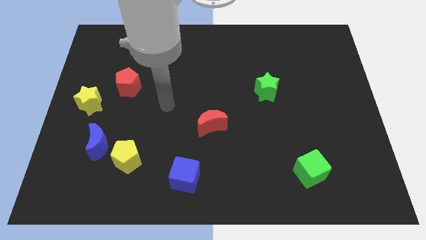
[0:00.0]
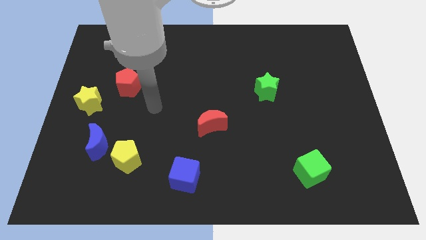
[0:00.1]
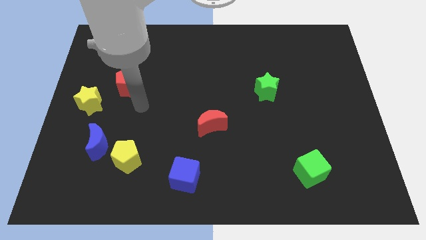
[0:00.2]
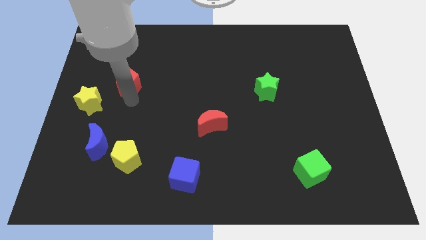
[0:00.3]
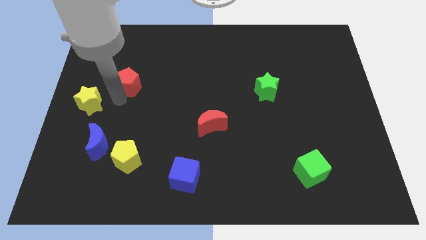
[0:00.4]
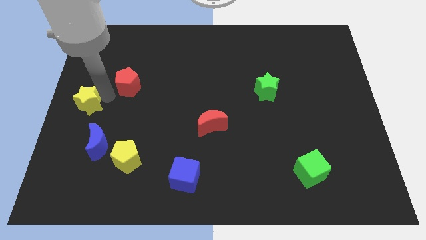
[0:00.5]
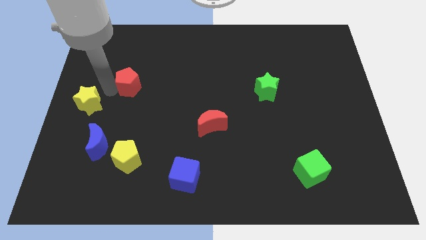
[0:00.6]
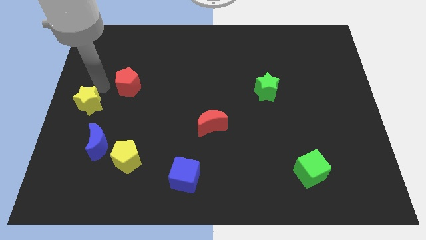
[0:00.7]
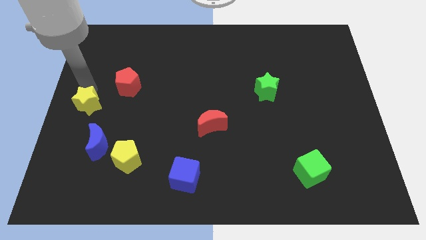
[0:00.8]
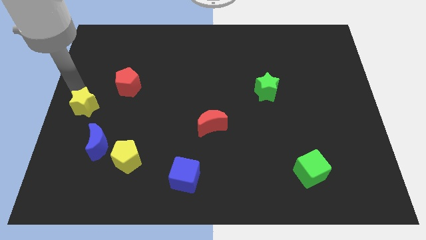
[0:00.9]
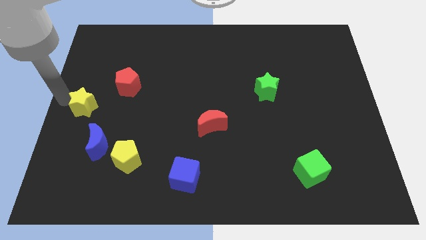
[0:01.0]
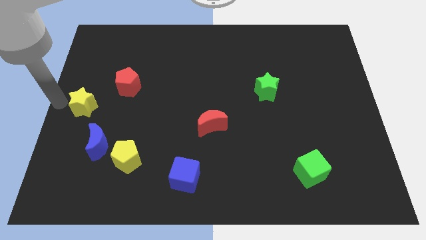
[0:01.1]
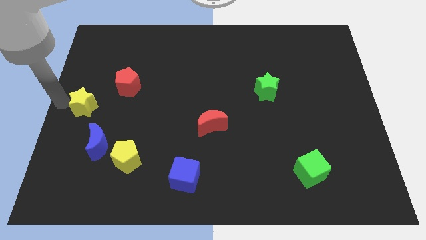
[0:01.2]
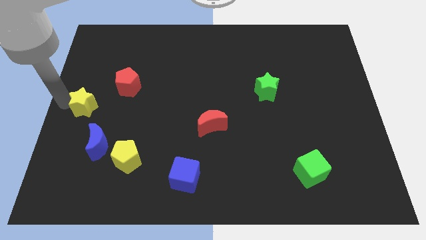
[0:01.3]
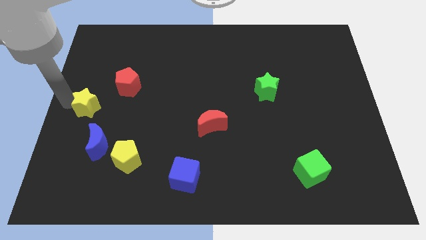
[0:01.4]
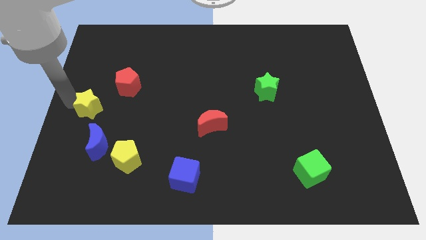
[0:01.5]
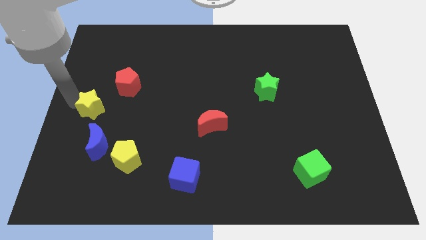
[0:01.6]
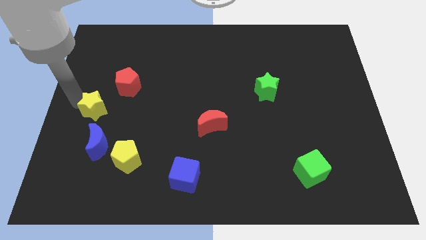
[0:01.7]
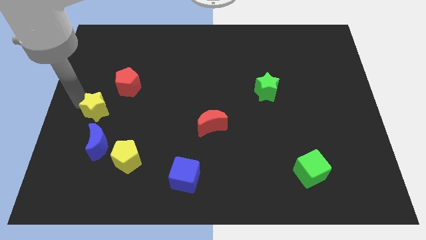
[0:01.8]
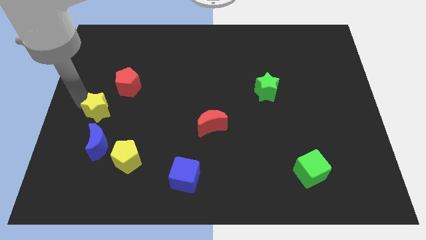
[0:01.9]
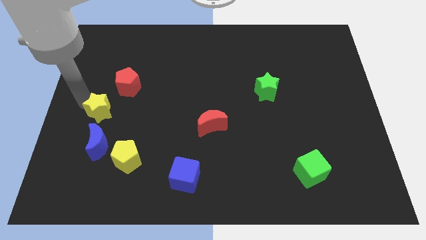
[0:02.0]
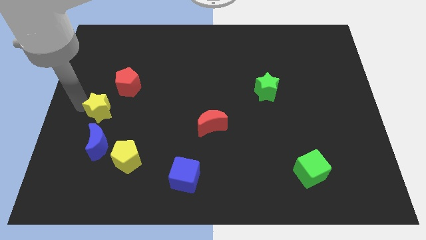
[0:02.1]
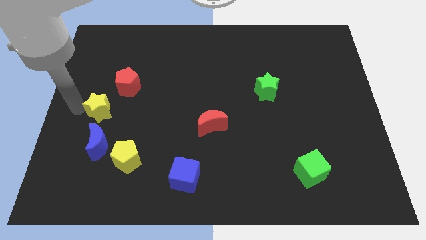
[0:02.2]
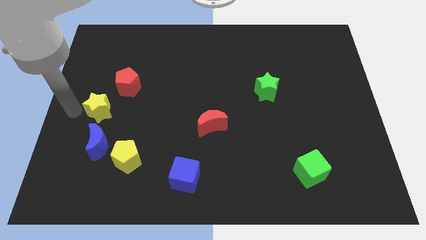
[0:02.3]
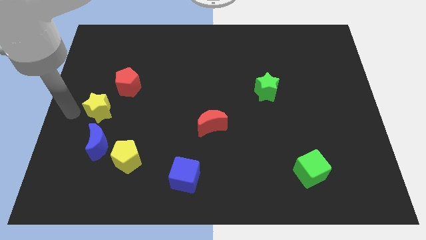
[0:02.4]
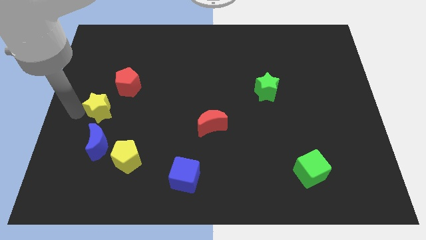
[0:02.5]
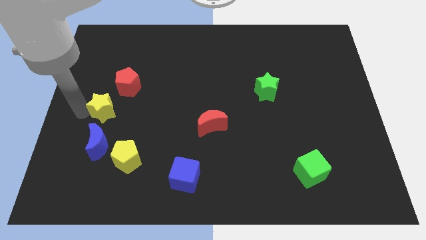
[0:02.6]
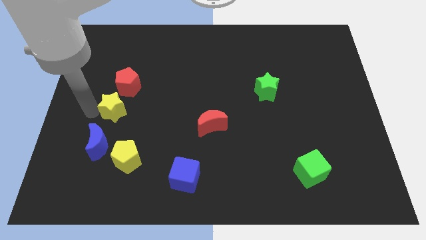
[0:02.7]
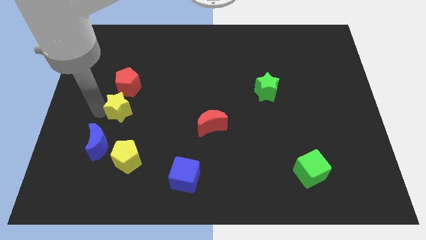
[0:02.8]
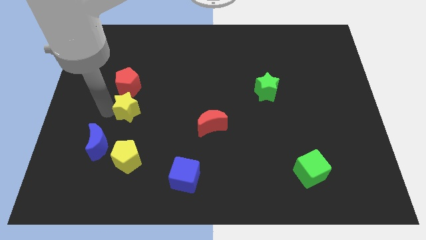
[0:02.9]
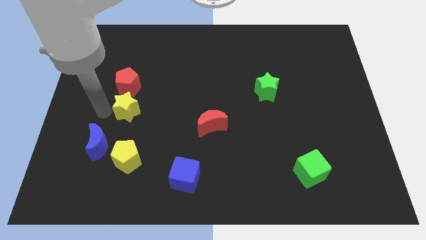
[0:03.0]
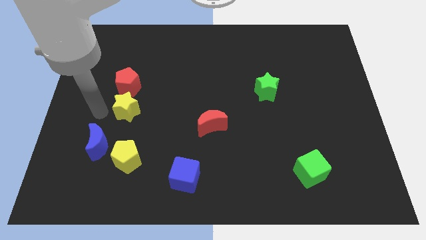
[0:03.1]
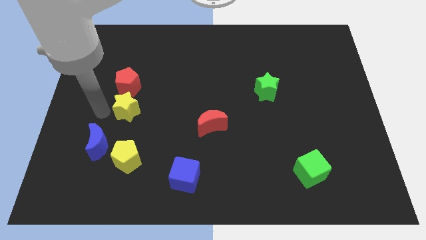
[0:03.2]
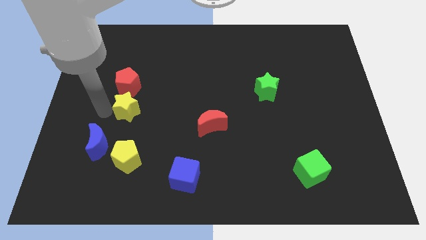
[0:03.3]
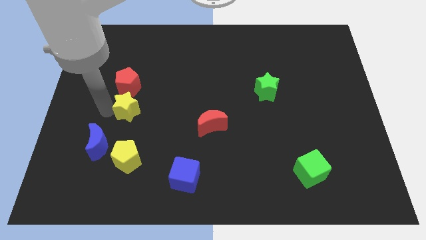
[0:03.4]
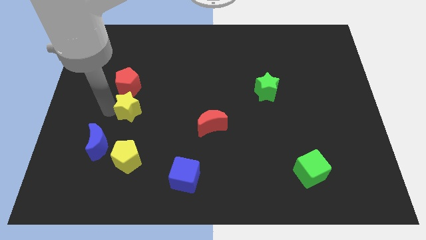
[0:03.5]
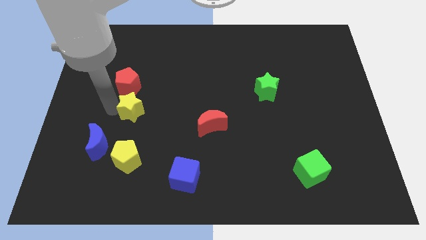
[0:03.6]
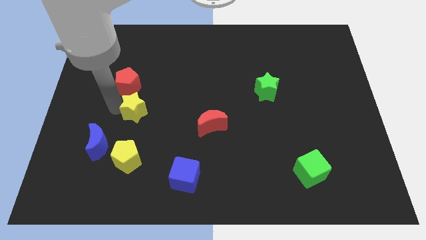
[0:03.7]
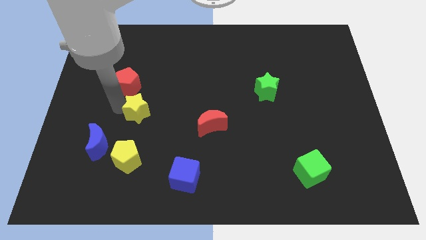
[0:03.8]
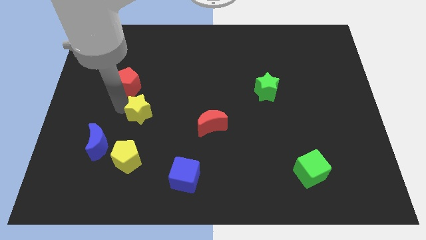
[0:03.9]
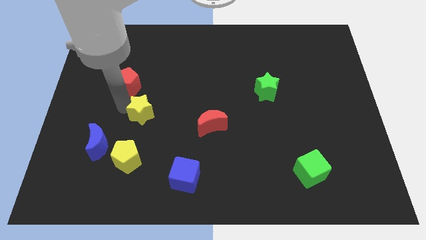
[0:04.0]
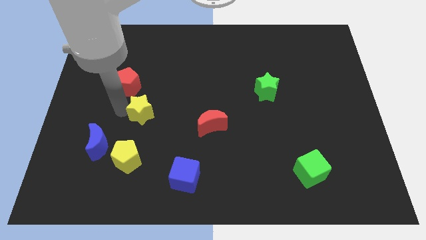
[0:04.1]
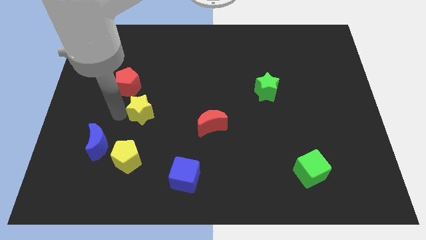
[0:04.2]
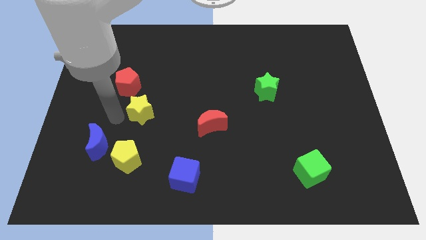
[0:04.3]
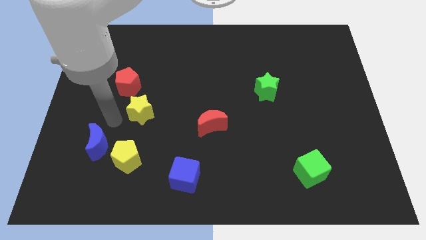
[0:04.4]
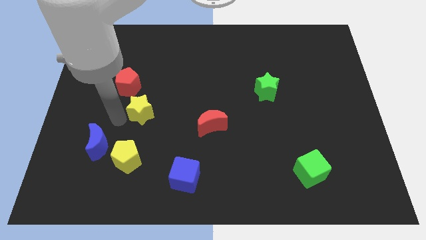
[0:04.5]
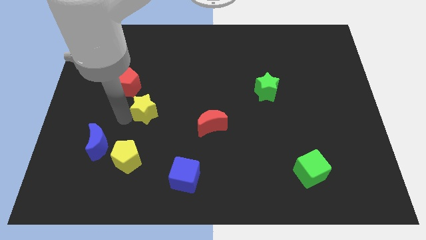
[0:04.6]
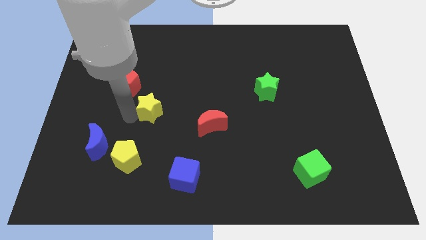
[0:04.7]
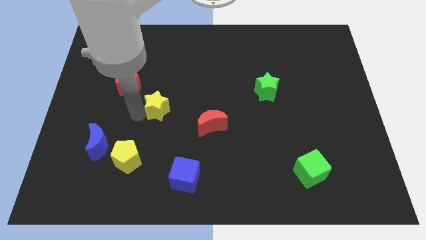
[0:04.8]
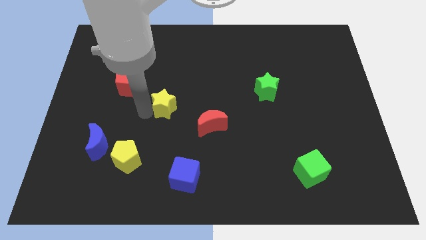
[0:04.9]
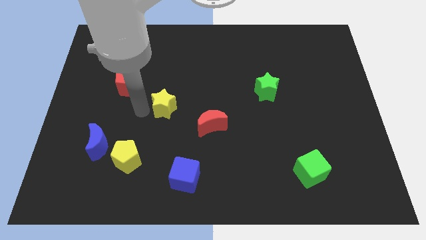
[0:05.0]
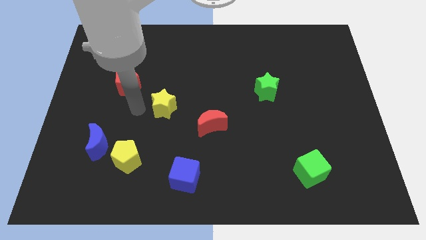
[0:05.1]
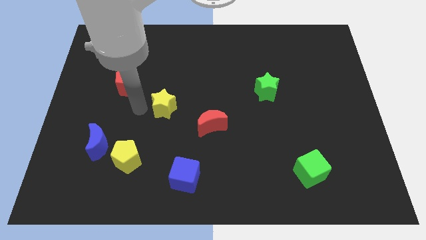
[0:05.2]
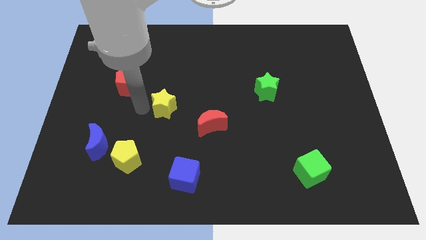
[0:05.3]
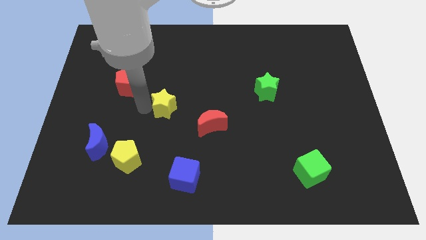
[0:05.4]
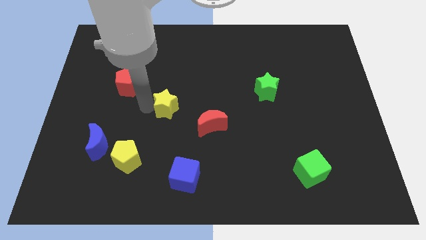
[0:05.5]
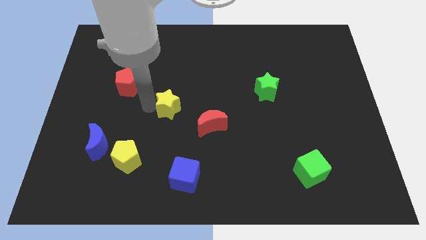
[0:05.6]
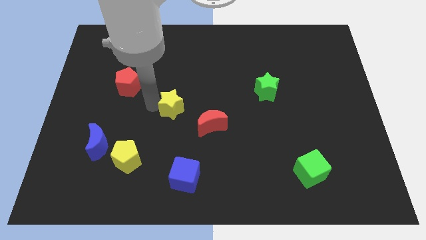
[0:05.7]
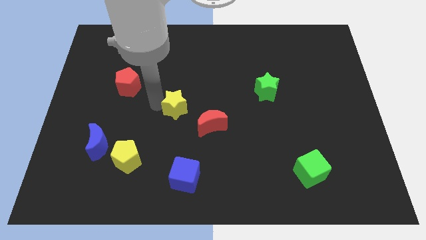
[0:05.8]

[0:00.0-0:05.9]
push the yellow star right

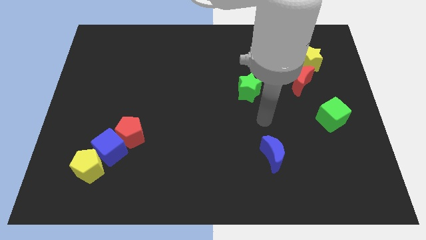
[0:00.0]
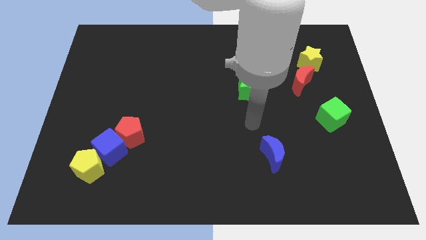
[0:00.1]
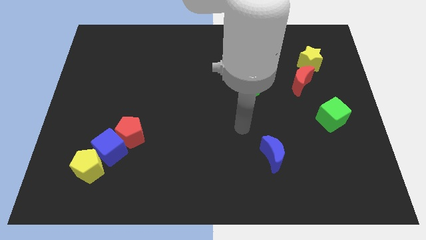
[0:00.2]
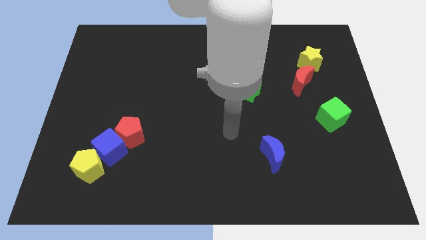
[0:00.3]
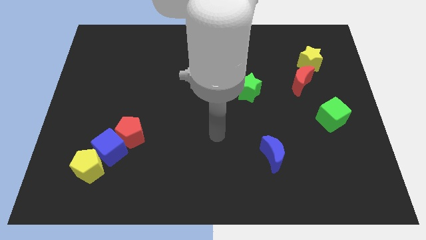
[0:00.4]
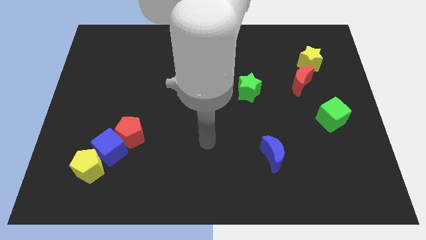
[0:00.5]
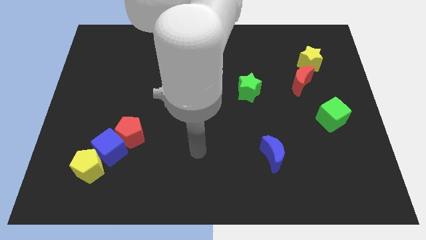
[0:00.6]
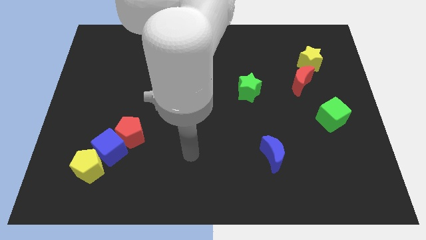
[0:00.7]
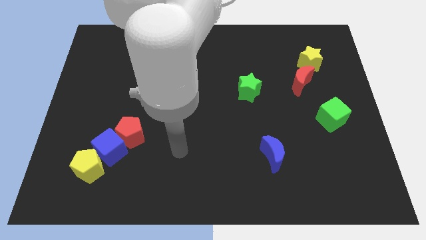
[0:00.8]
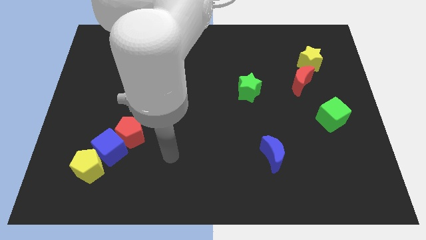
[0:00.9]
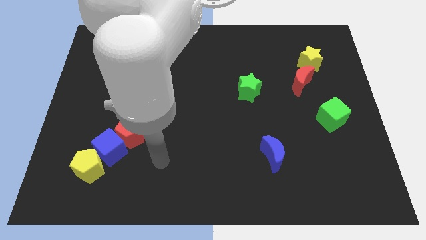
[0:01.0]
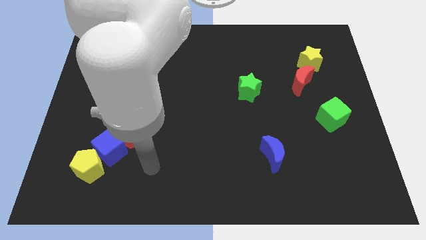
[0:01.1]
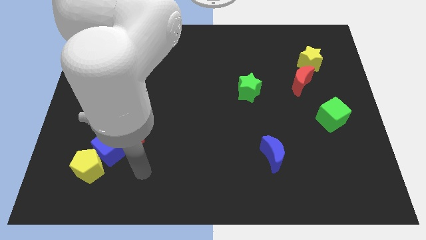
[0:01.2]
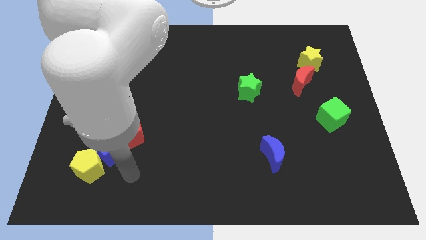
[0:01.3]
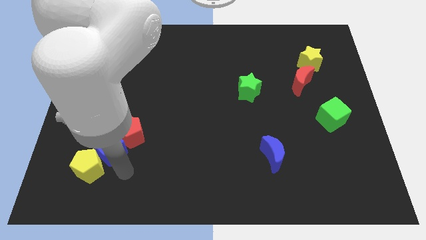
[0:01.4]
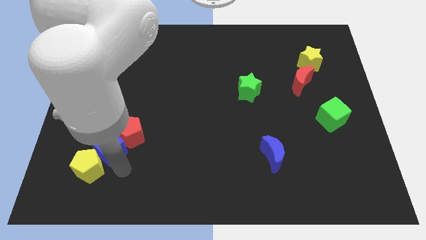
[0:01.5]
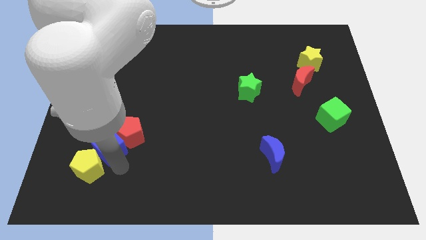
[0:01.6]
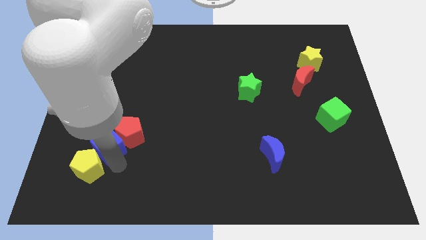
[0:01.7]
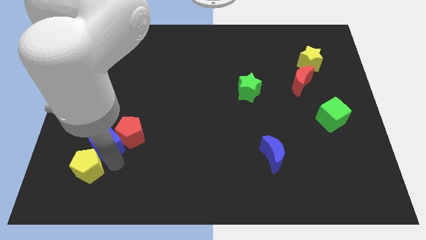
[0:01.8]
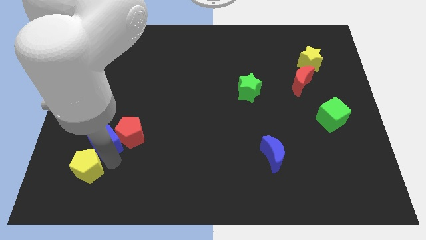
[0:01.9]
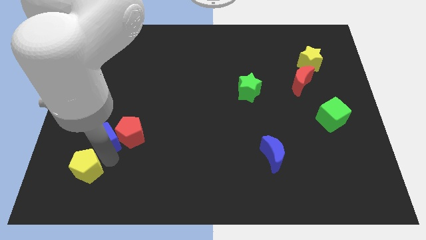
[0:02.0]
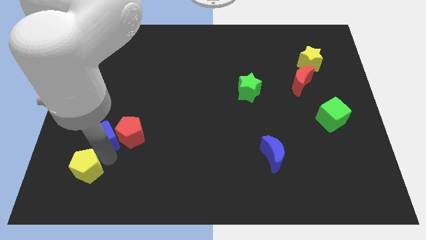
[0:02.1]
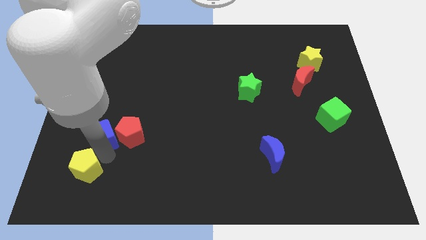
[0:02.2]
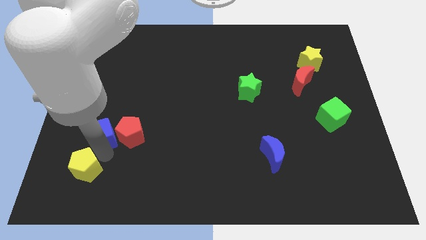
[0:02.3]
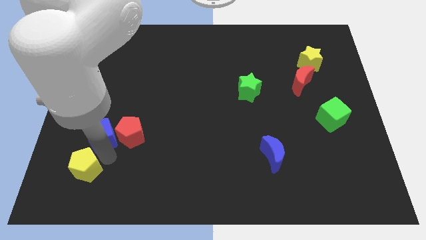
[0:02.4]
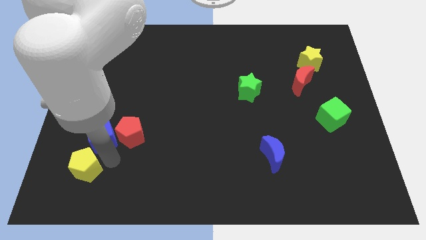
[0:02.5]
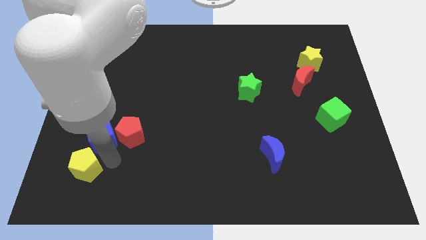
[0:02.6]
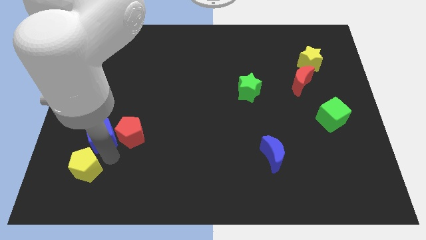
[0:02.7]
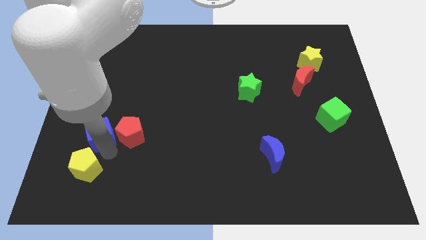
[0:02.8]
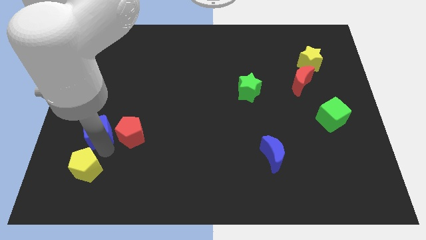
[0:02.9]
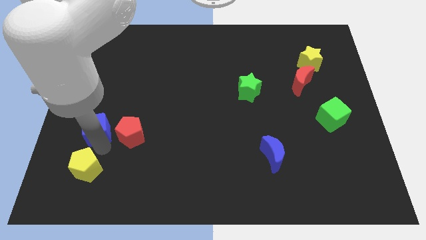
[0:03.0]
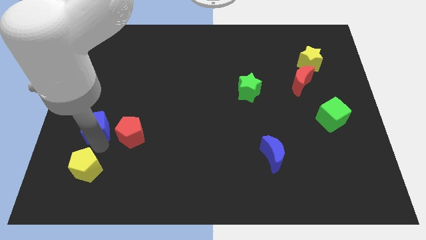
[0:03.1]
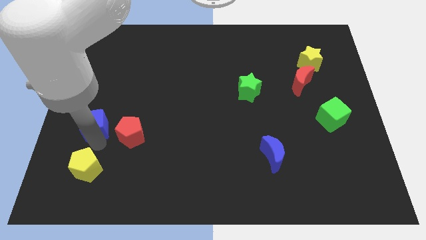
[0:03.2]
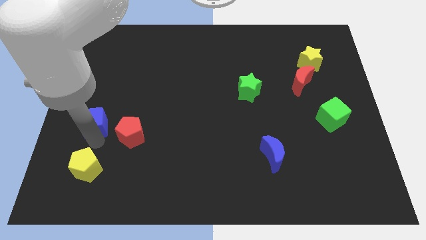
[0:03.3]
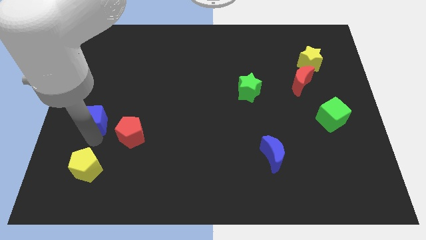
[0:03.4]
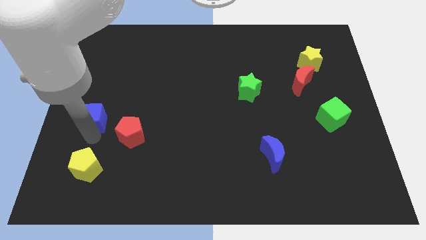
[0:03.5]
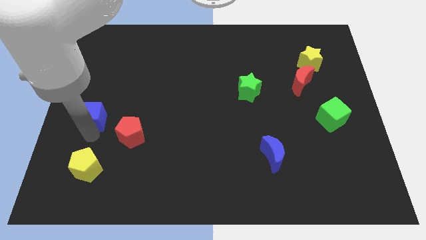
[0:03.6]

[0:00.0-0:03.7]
push the blue cube slightly upwards
